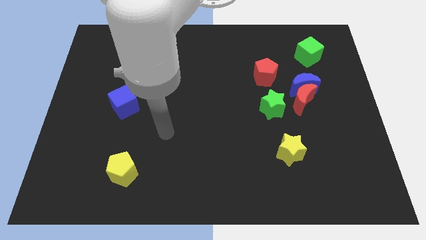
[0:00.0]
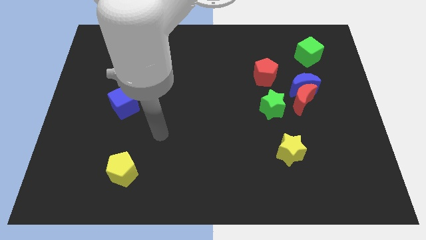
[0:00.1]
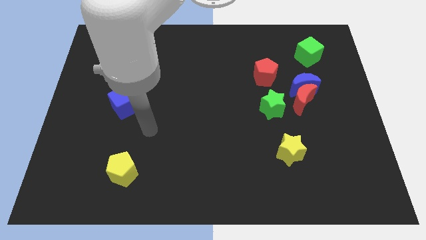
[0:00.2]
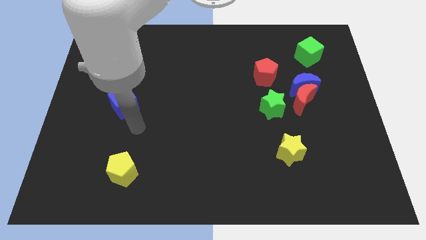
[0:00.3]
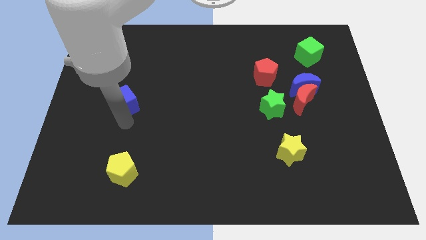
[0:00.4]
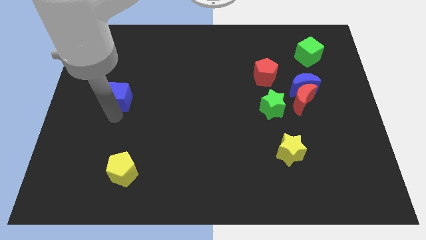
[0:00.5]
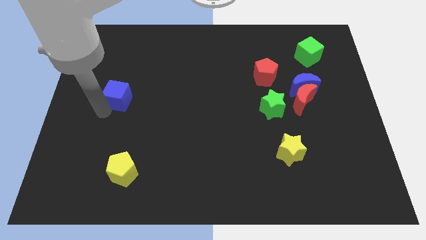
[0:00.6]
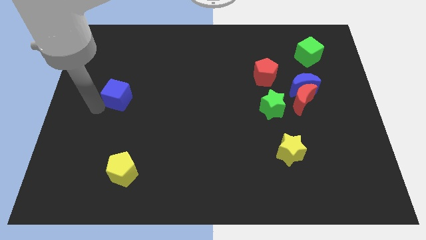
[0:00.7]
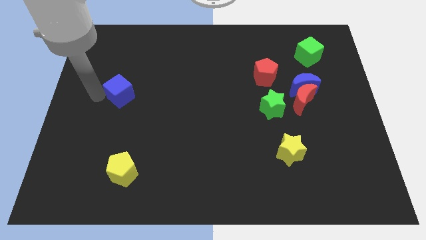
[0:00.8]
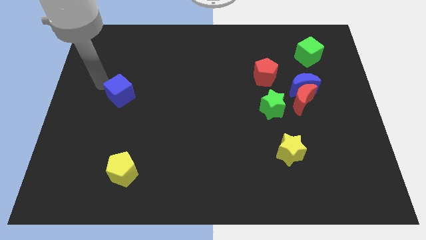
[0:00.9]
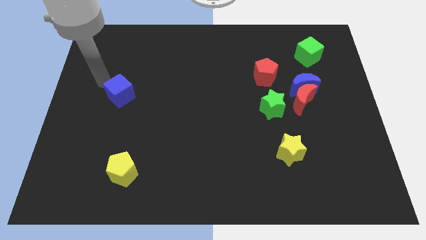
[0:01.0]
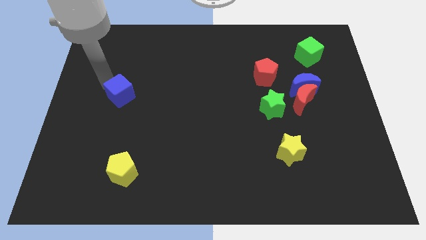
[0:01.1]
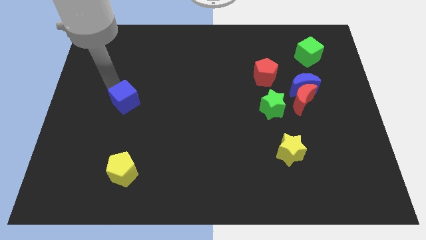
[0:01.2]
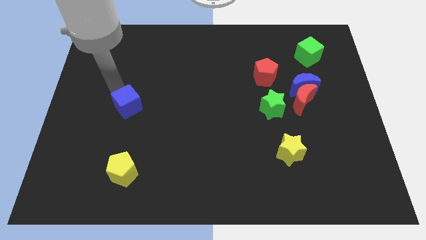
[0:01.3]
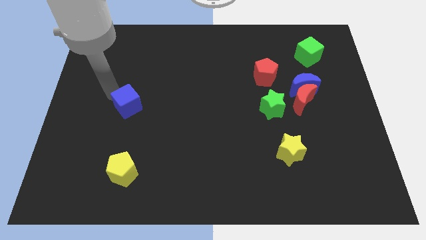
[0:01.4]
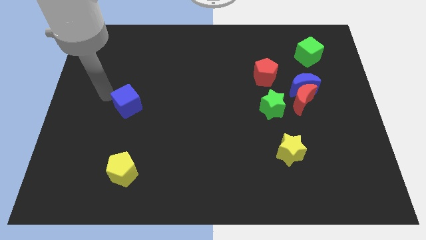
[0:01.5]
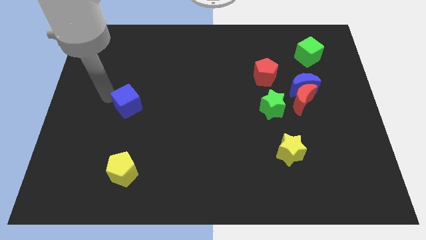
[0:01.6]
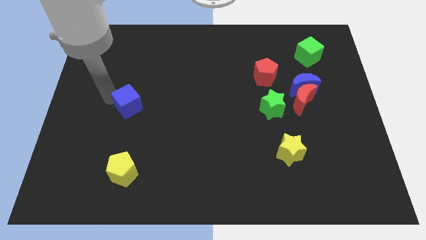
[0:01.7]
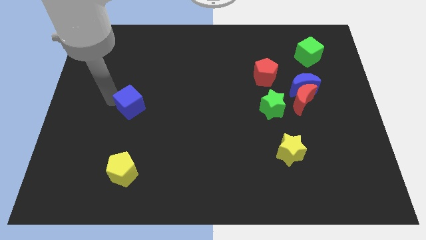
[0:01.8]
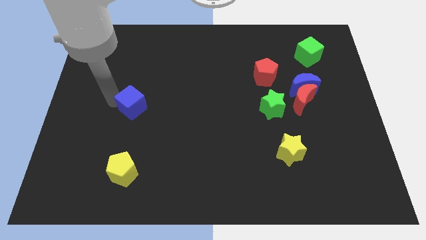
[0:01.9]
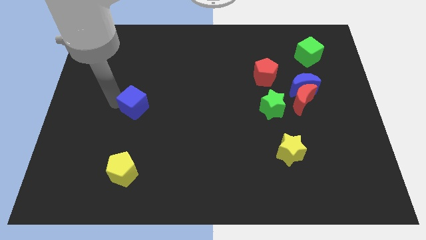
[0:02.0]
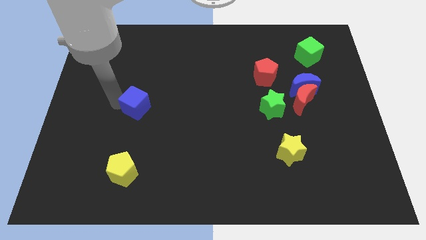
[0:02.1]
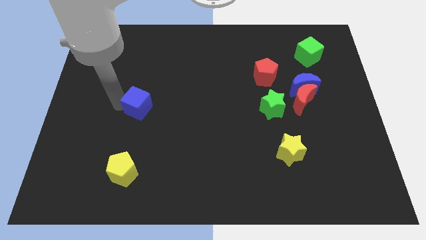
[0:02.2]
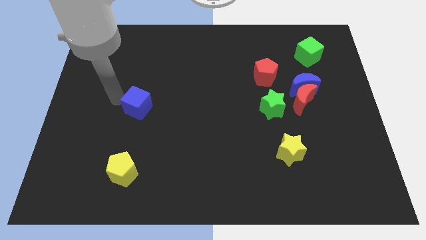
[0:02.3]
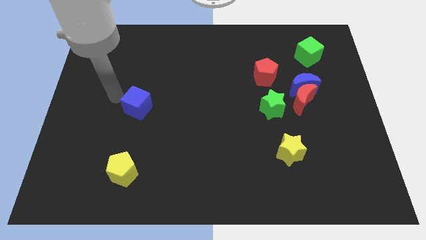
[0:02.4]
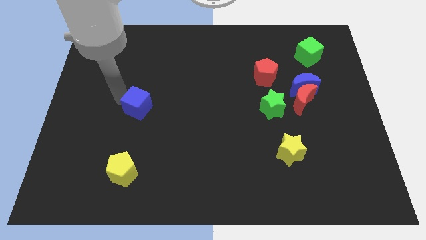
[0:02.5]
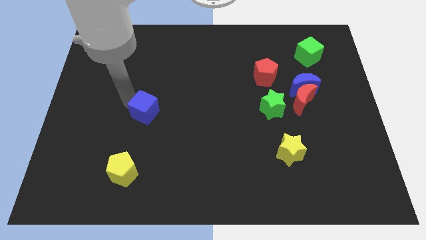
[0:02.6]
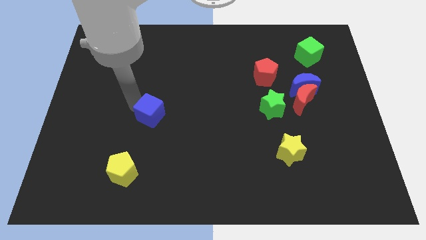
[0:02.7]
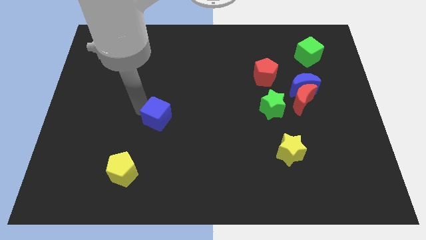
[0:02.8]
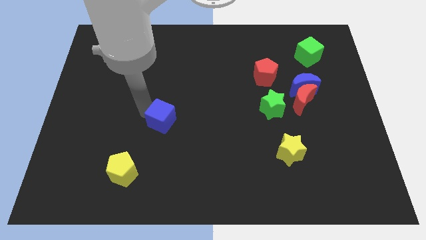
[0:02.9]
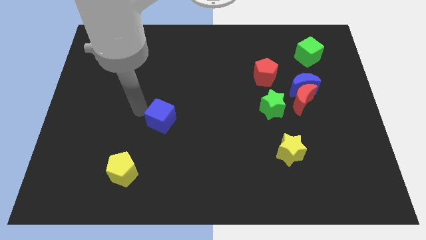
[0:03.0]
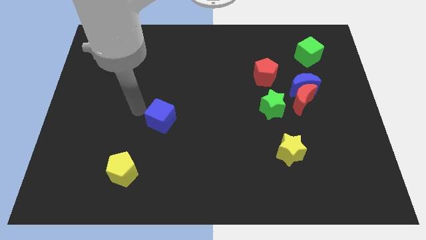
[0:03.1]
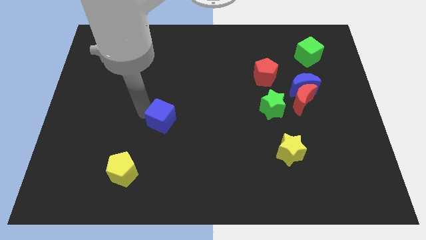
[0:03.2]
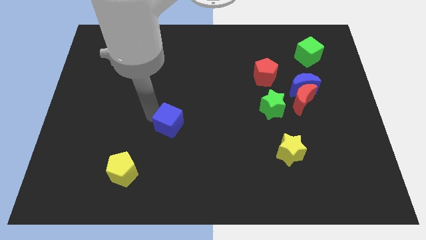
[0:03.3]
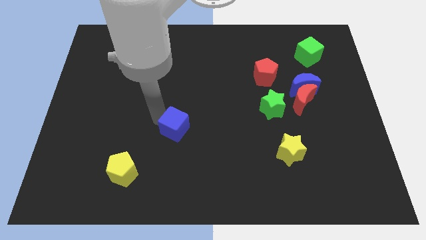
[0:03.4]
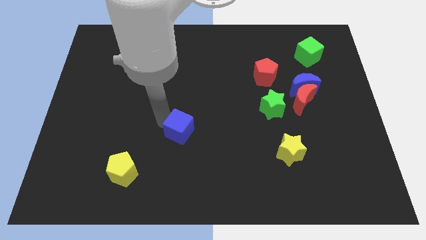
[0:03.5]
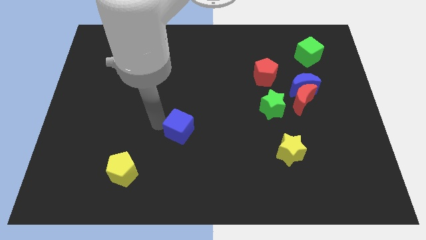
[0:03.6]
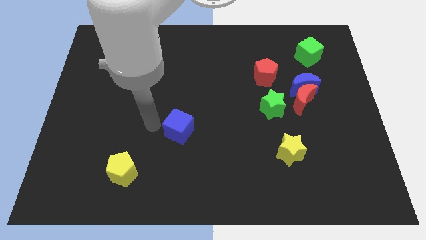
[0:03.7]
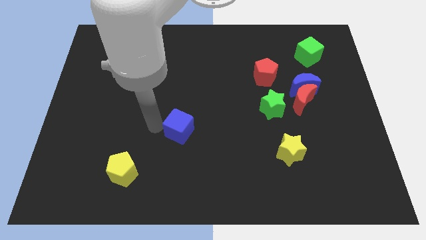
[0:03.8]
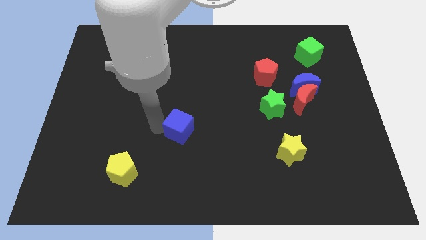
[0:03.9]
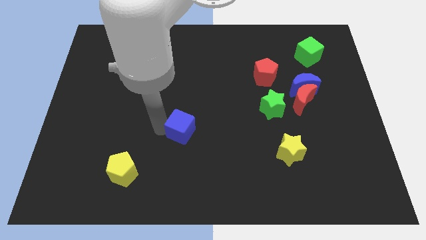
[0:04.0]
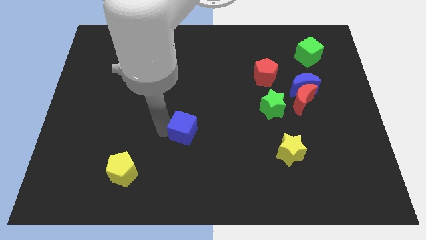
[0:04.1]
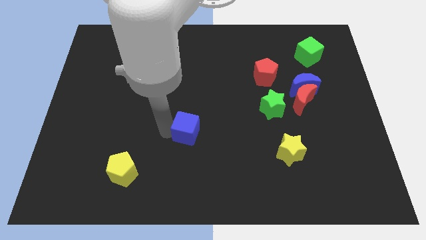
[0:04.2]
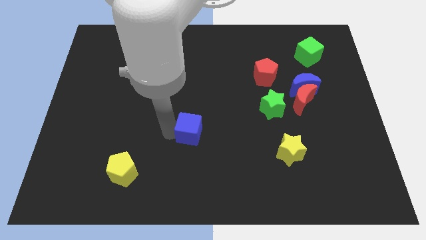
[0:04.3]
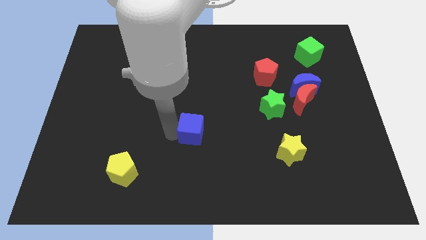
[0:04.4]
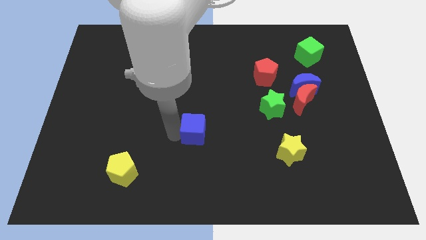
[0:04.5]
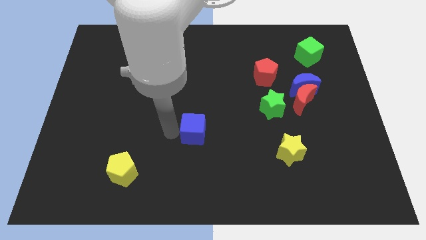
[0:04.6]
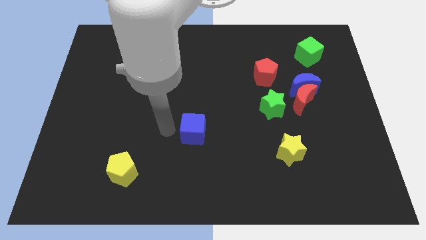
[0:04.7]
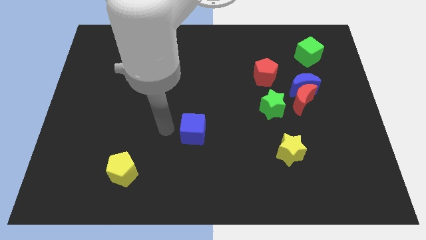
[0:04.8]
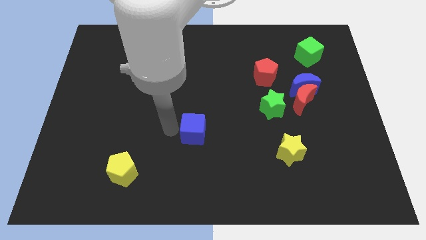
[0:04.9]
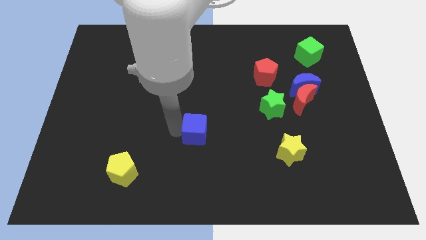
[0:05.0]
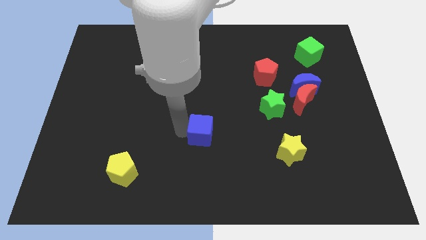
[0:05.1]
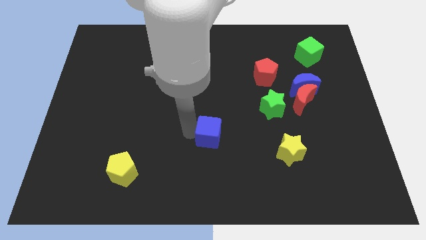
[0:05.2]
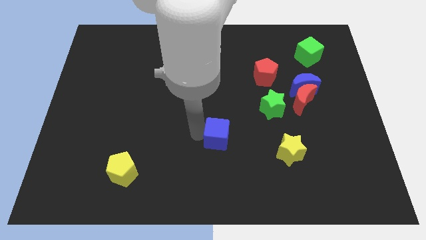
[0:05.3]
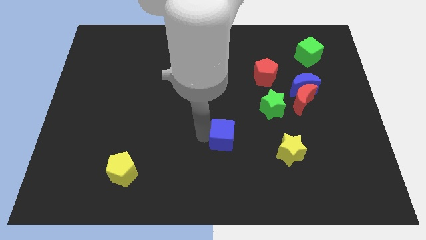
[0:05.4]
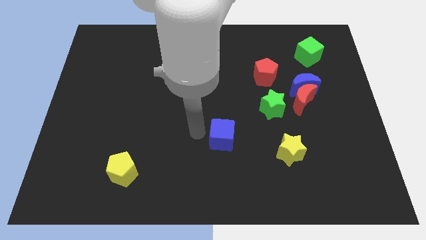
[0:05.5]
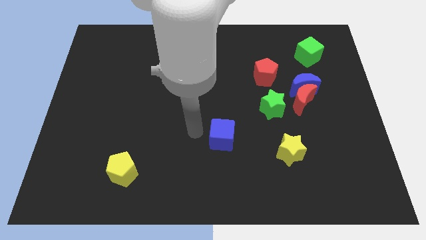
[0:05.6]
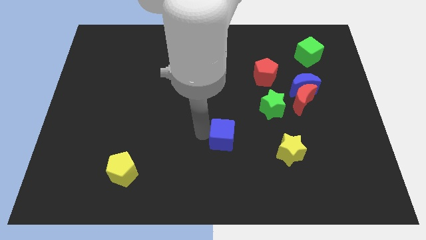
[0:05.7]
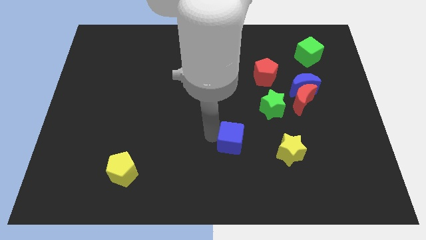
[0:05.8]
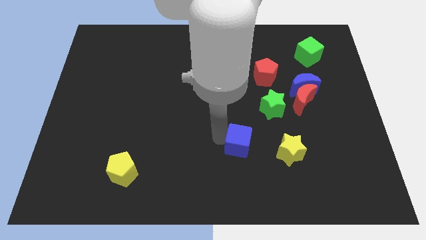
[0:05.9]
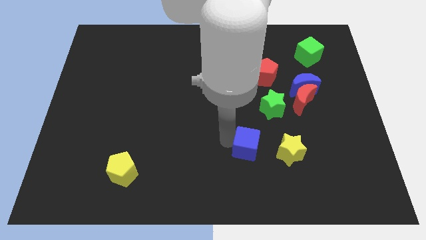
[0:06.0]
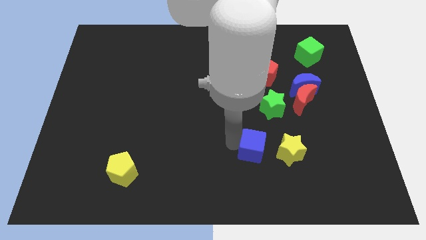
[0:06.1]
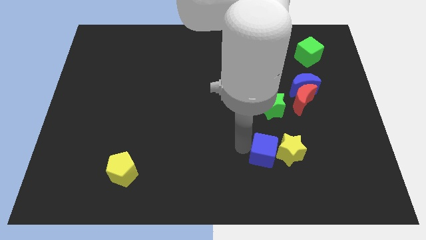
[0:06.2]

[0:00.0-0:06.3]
push the blue cube towards the yellow star

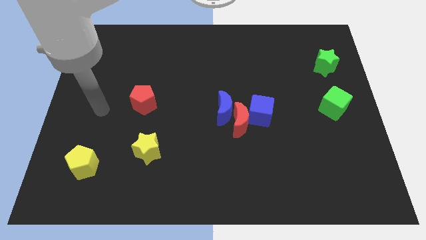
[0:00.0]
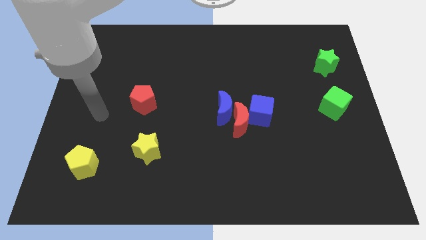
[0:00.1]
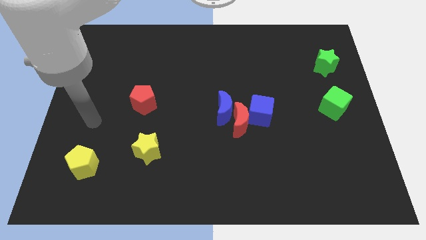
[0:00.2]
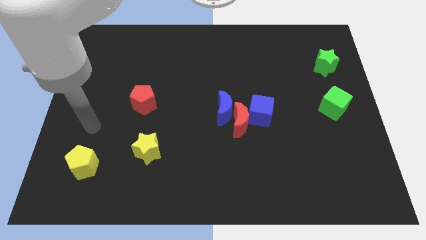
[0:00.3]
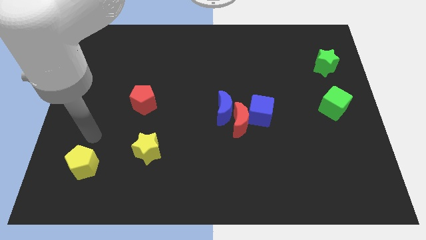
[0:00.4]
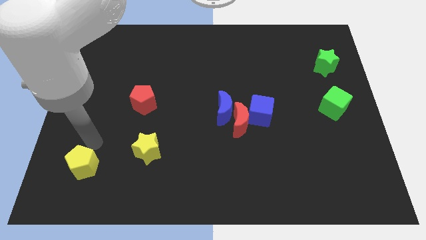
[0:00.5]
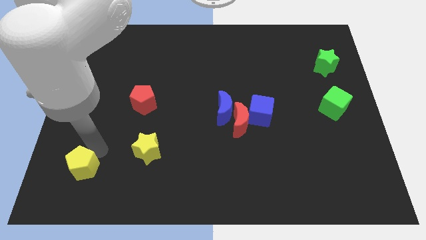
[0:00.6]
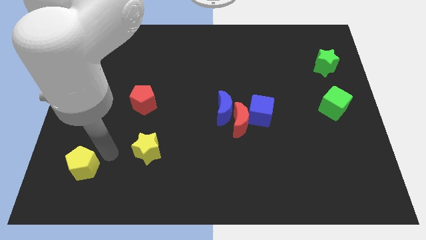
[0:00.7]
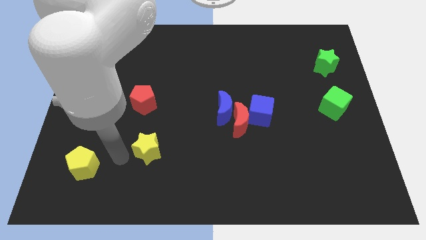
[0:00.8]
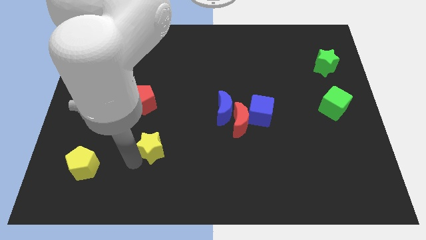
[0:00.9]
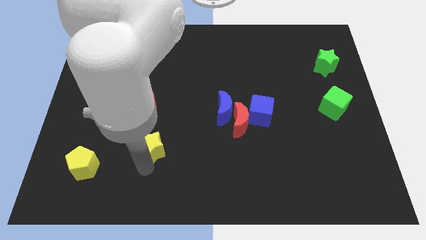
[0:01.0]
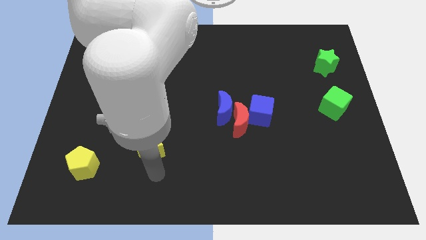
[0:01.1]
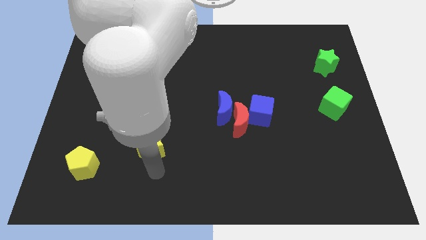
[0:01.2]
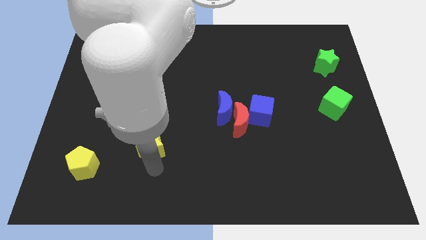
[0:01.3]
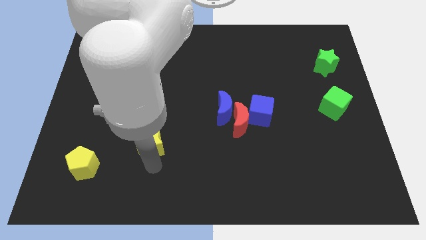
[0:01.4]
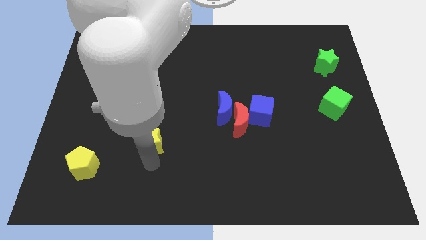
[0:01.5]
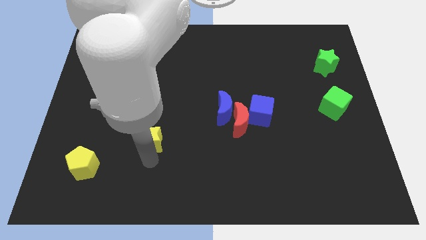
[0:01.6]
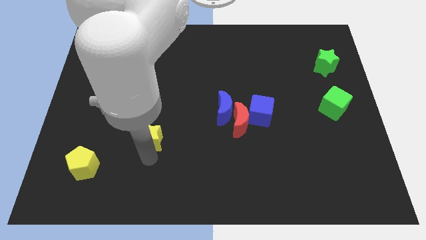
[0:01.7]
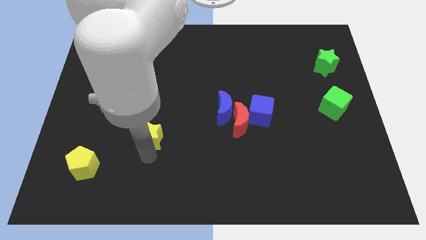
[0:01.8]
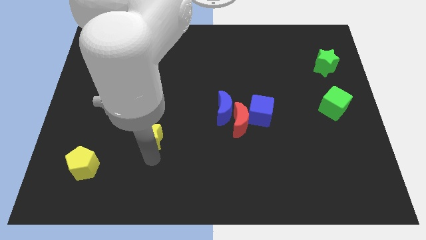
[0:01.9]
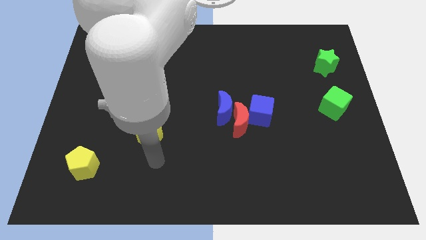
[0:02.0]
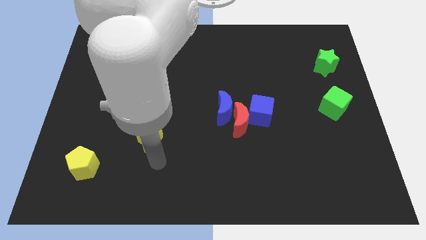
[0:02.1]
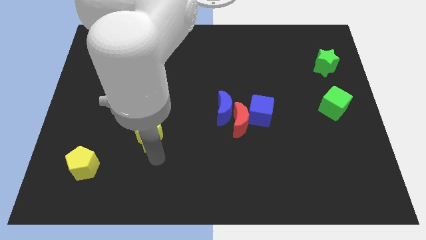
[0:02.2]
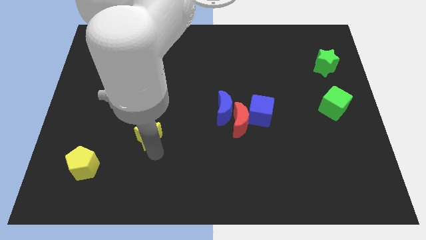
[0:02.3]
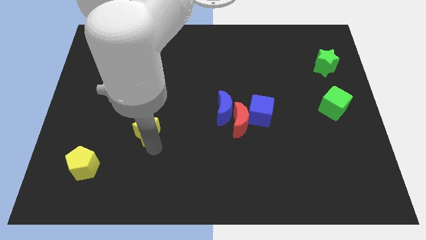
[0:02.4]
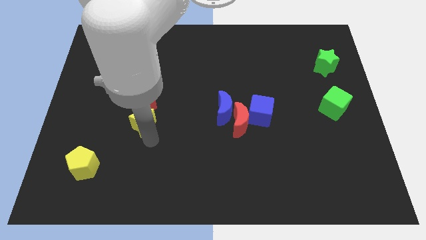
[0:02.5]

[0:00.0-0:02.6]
push the yellow star close to the red pentagon
